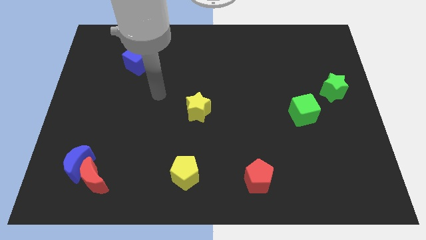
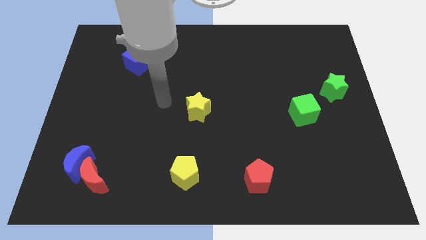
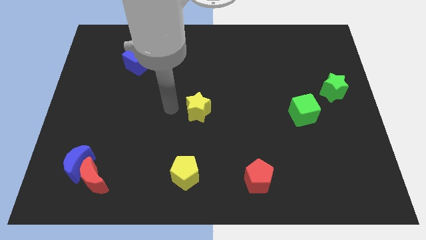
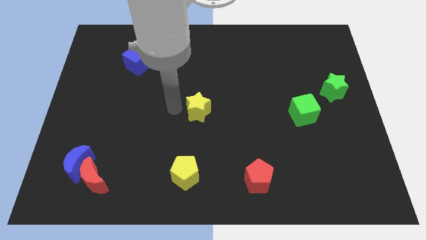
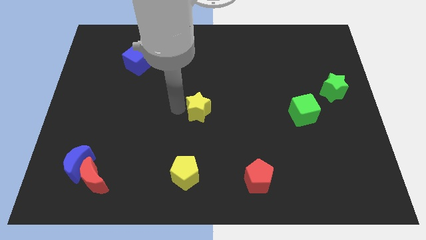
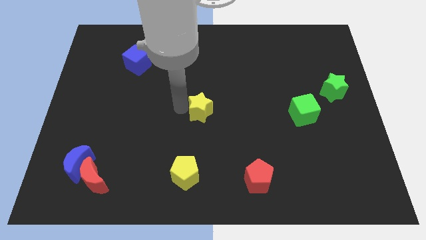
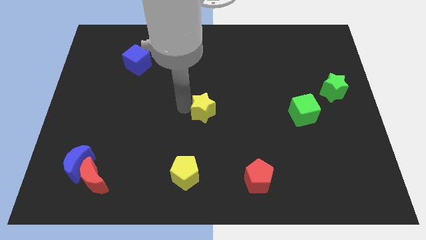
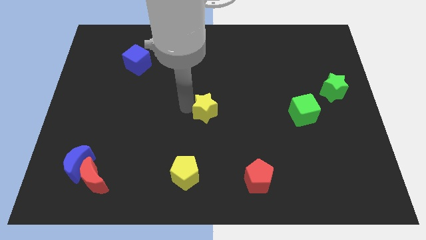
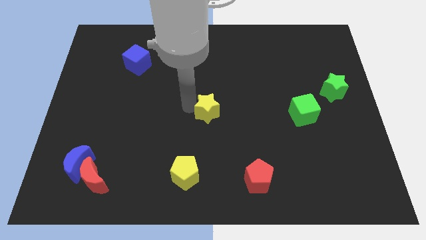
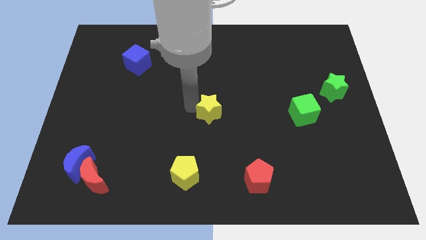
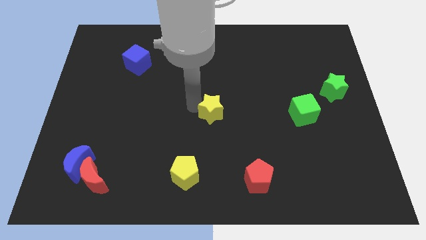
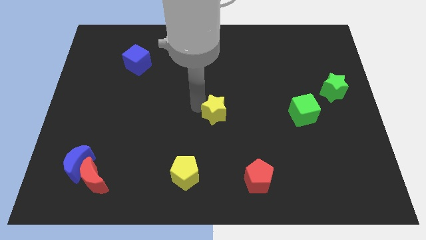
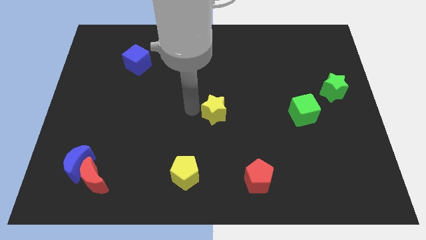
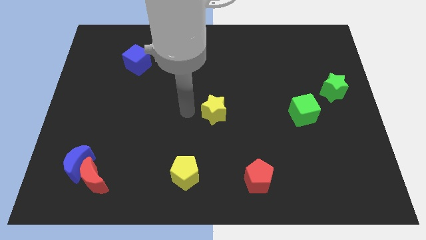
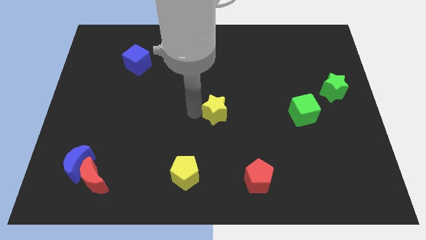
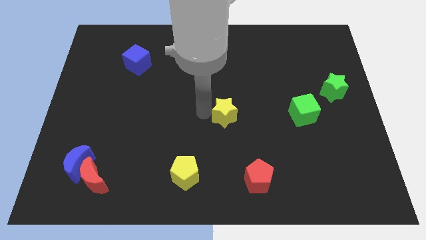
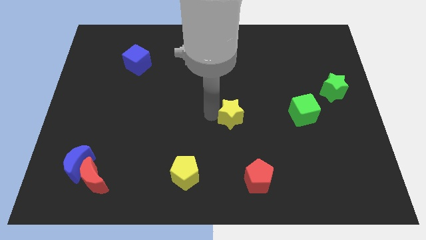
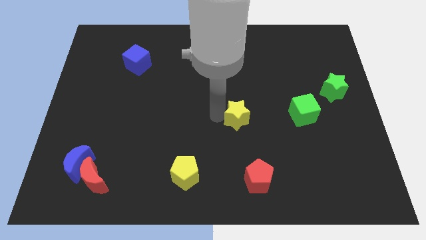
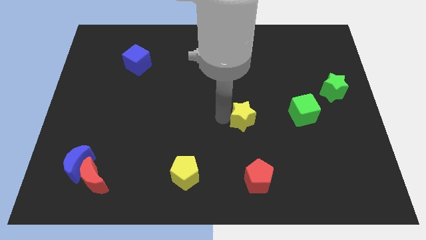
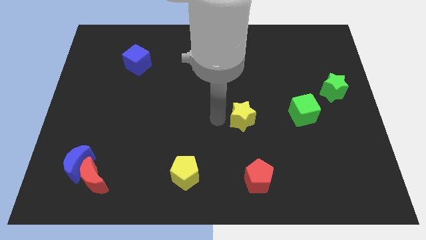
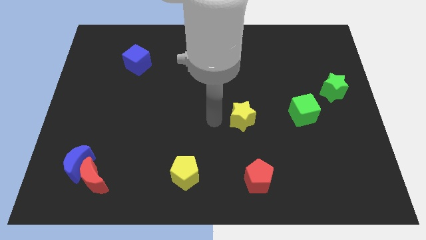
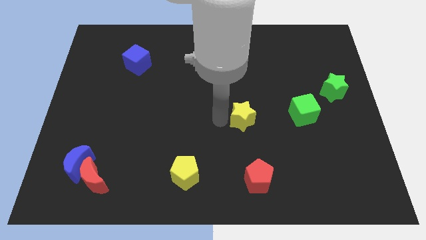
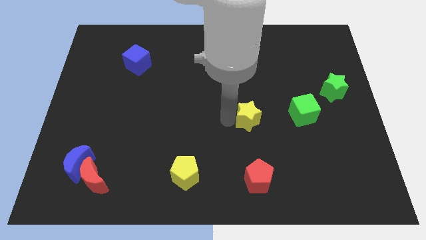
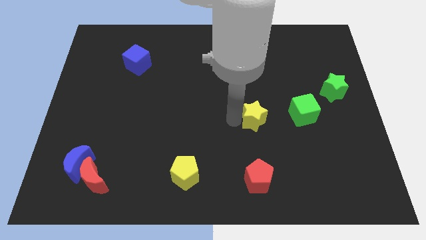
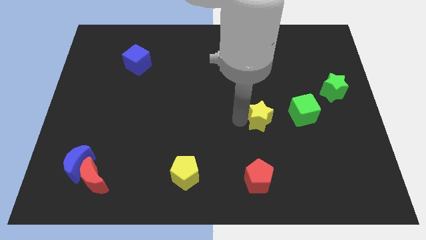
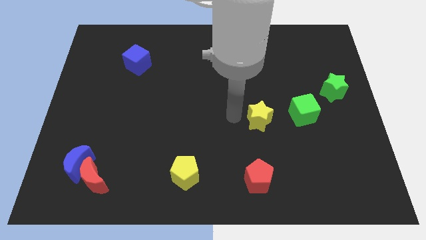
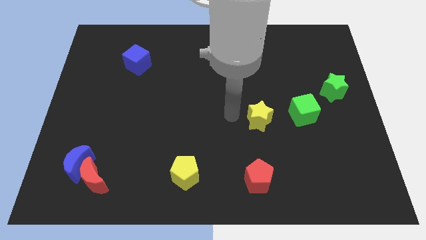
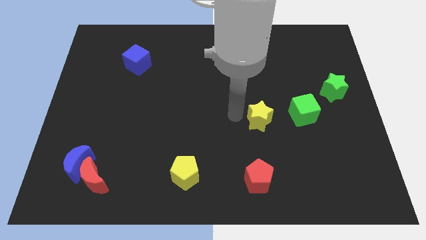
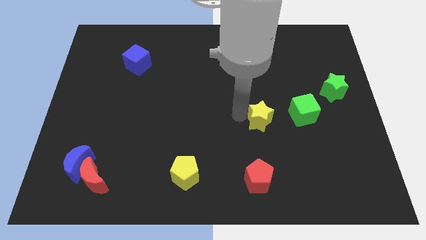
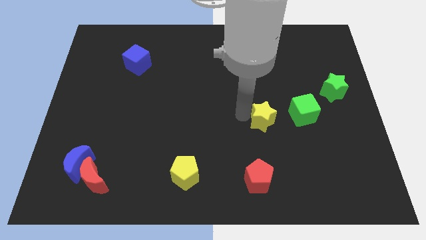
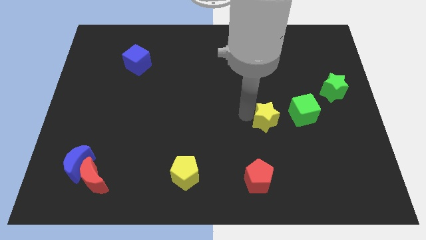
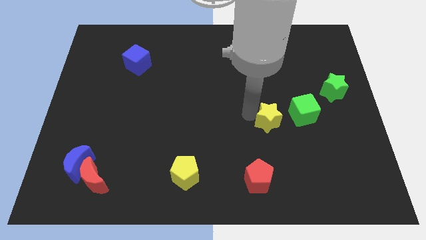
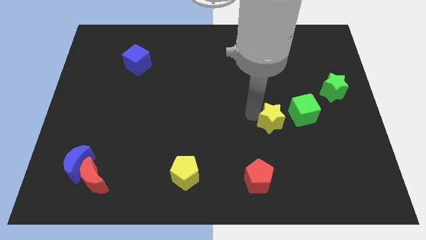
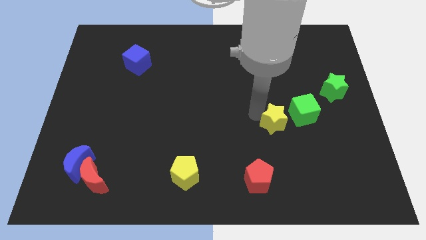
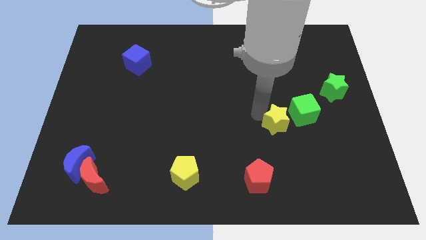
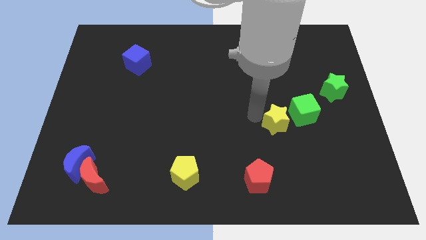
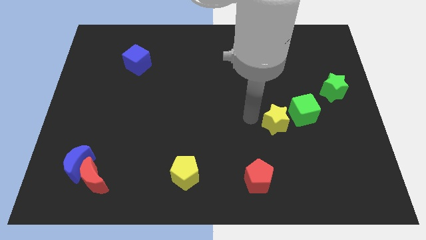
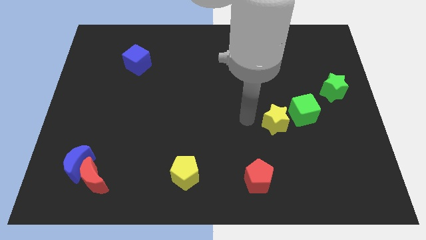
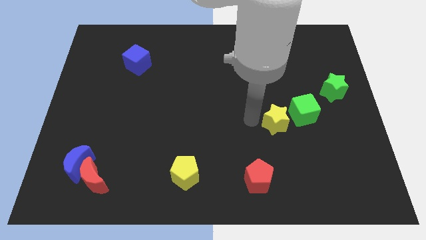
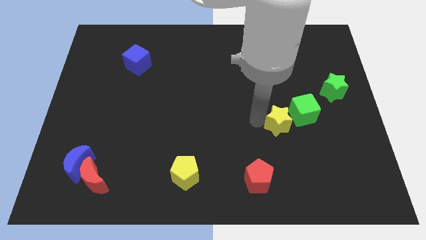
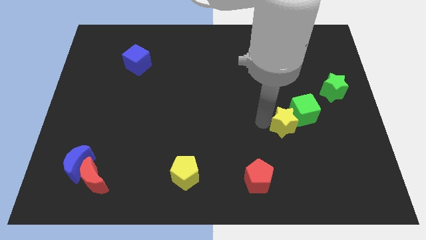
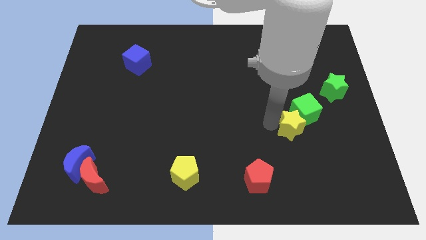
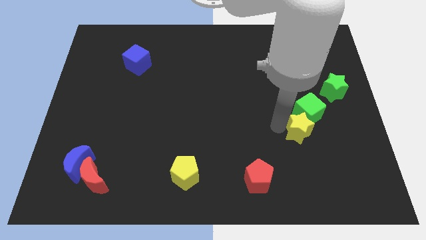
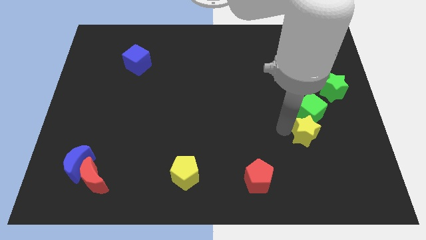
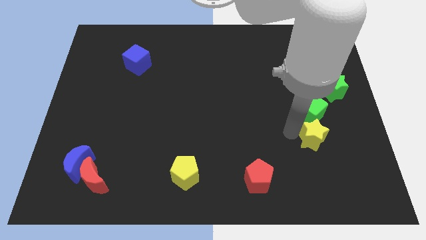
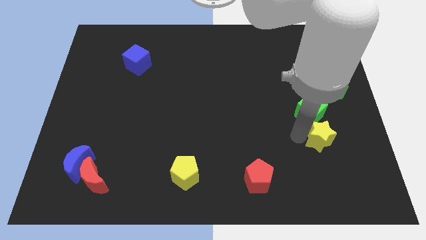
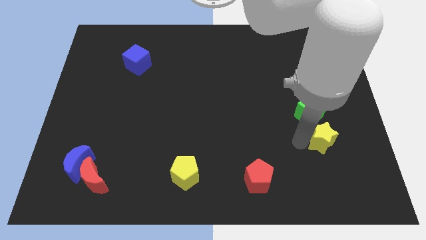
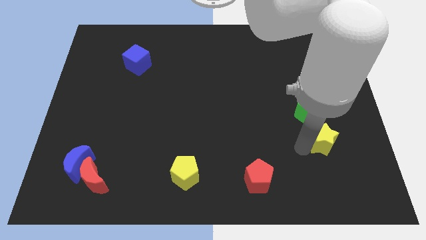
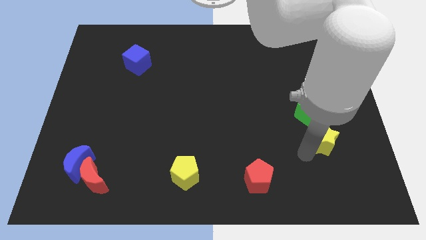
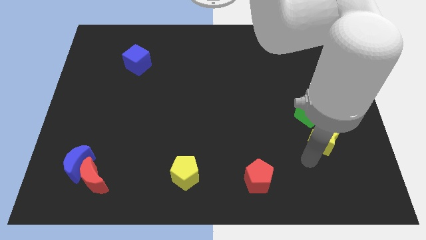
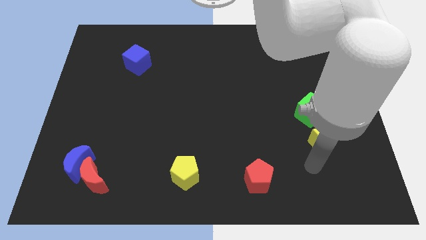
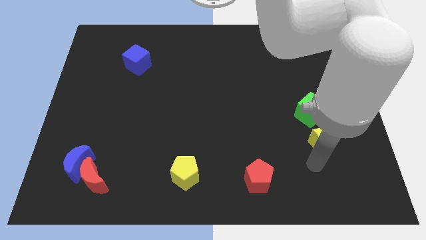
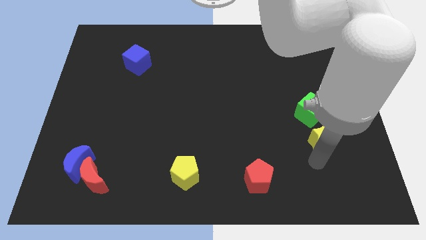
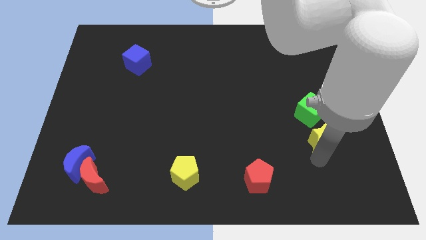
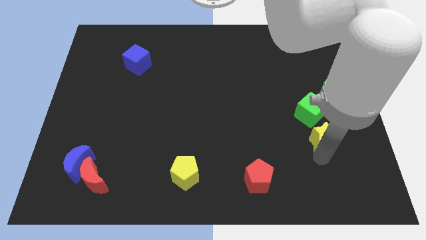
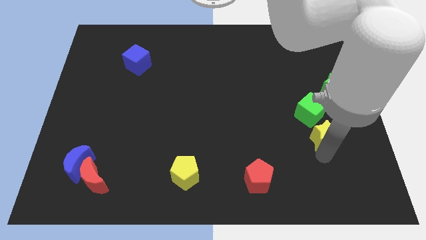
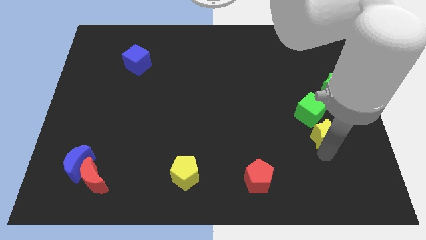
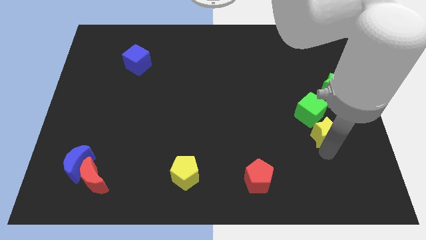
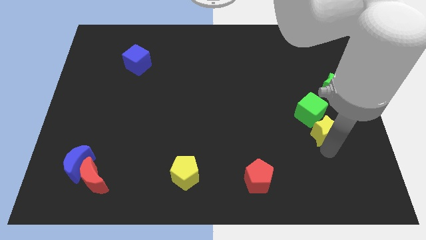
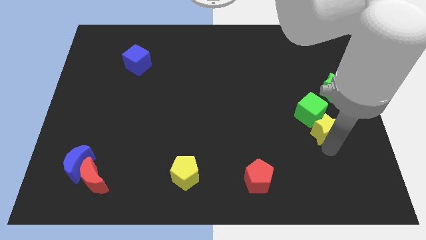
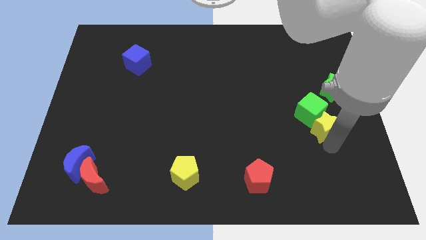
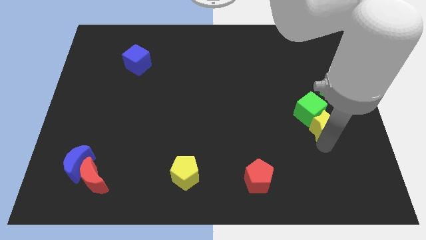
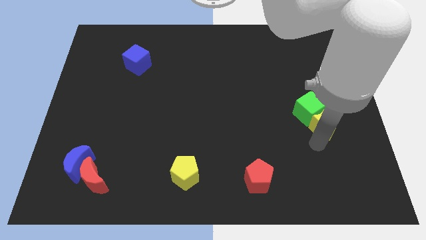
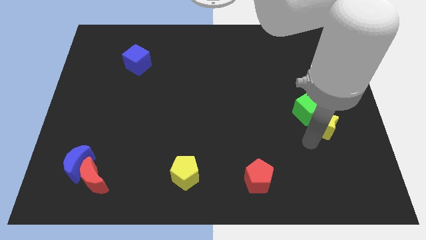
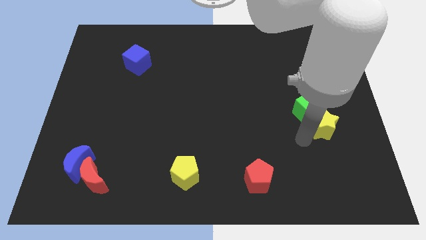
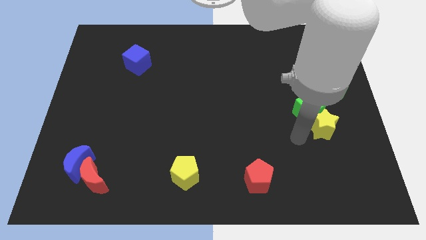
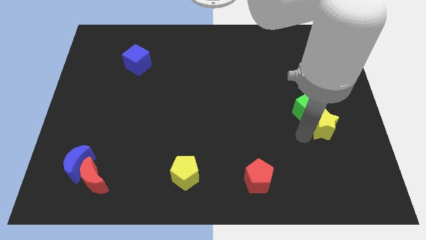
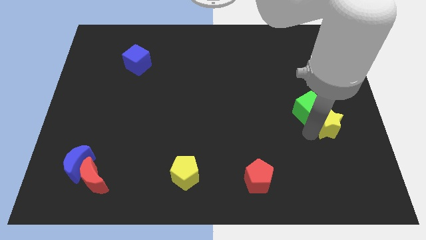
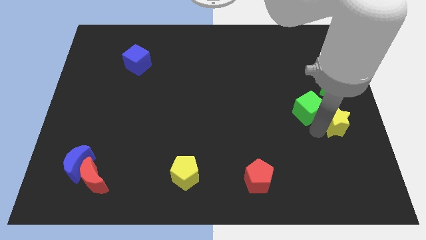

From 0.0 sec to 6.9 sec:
slide the yellow star to the center right
